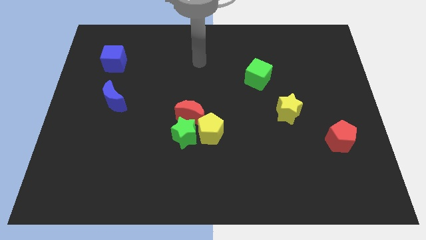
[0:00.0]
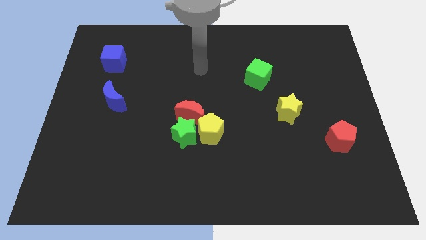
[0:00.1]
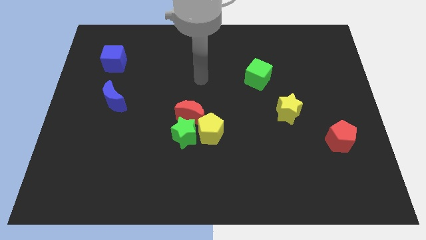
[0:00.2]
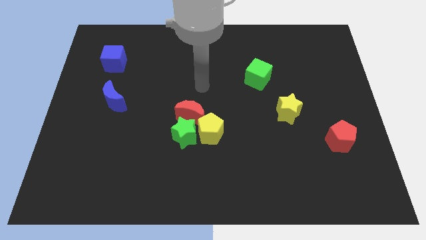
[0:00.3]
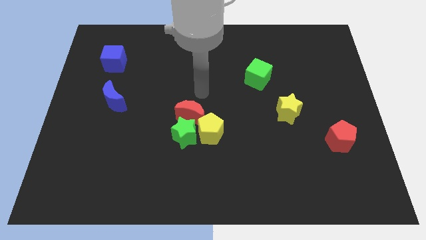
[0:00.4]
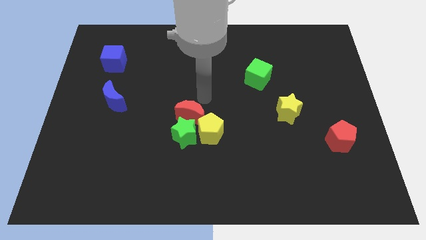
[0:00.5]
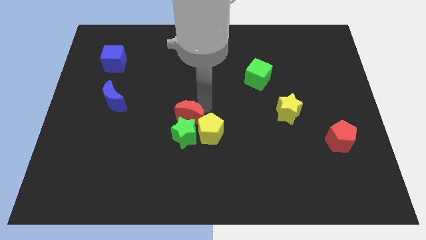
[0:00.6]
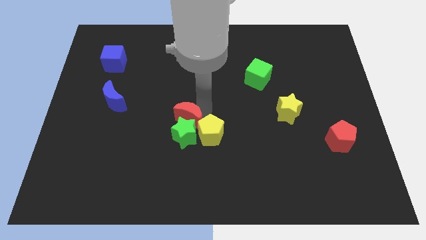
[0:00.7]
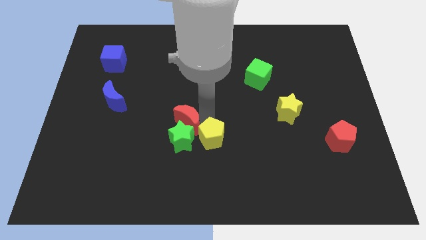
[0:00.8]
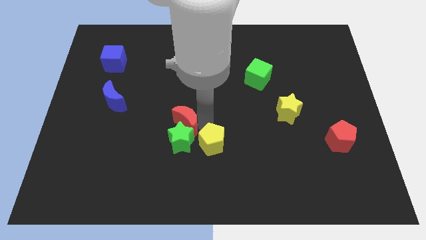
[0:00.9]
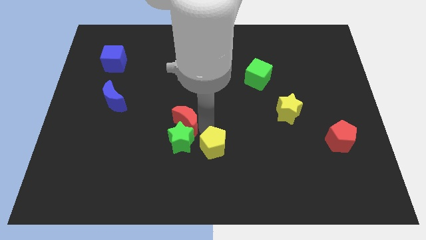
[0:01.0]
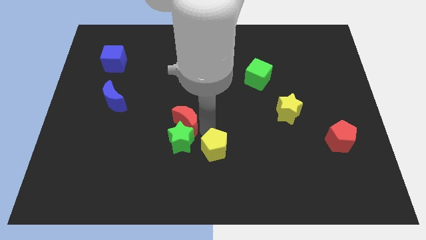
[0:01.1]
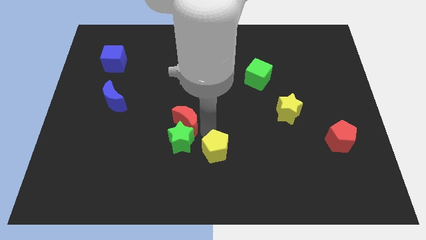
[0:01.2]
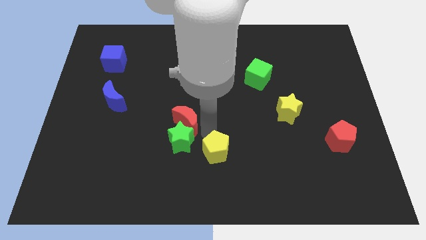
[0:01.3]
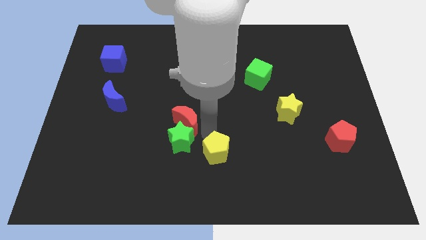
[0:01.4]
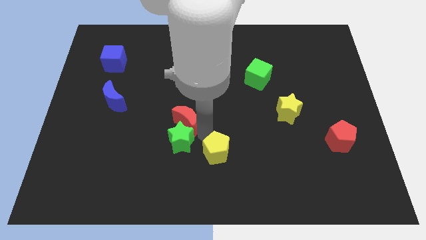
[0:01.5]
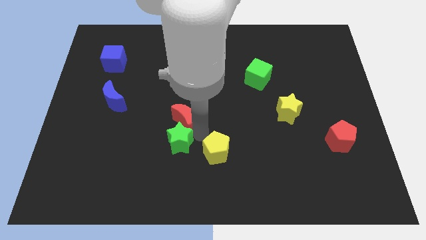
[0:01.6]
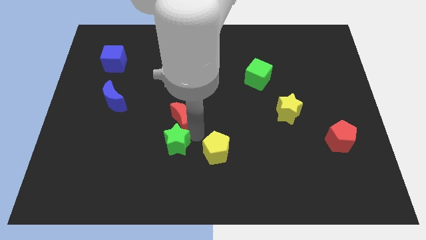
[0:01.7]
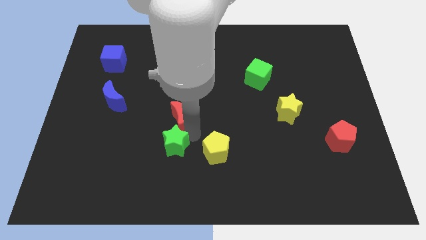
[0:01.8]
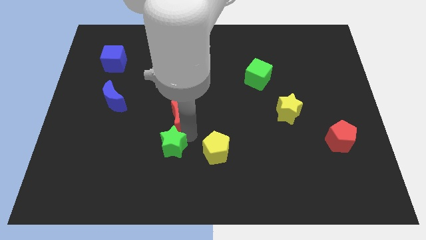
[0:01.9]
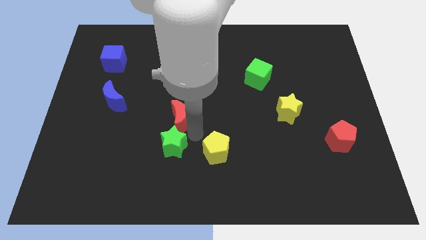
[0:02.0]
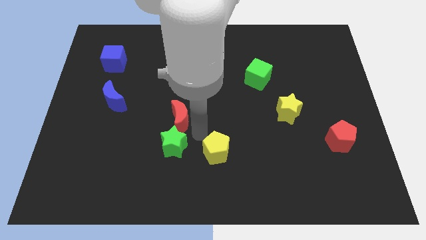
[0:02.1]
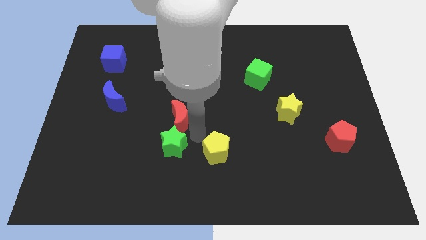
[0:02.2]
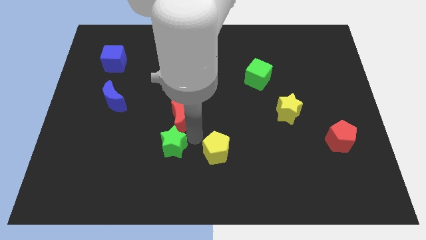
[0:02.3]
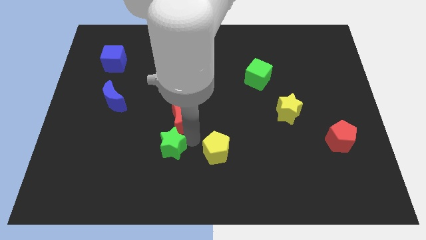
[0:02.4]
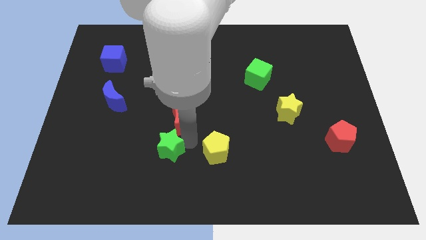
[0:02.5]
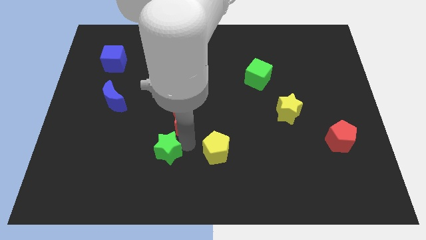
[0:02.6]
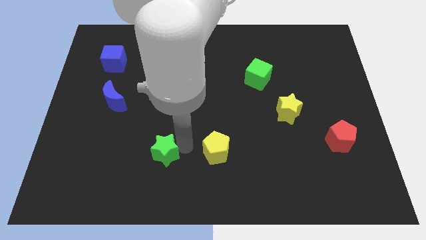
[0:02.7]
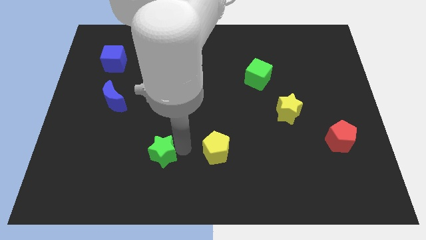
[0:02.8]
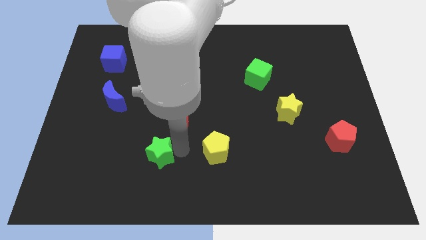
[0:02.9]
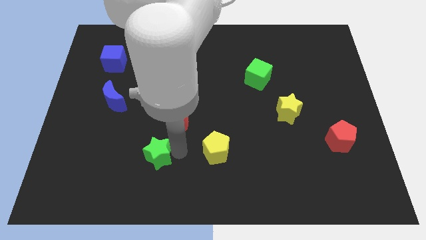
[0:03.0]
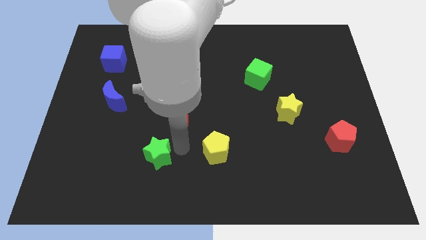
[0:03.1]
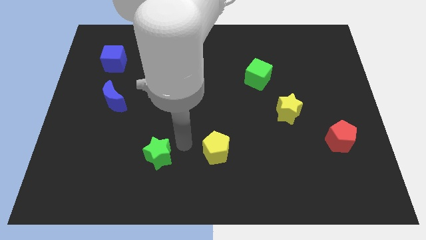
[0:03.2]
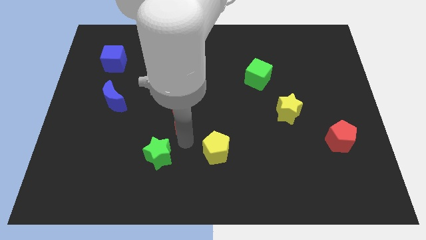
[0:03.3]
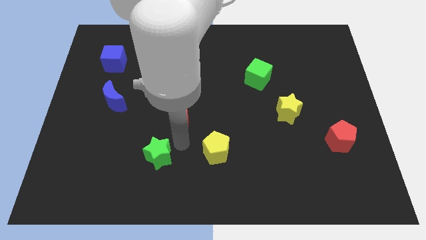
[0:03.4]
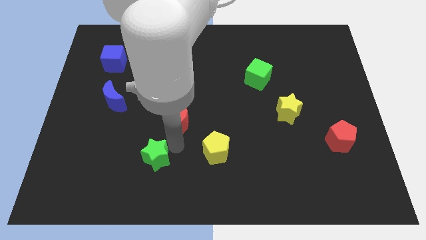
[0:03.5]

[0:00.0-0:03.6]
pull the green star apart from the red moon and yellow pentagon

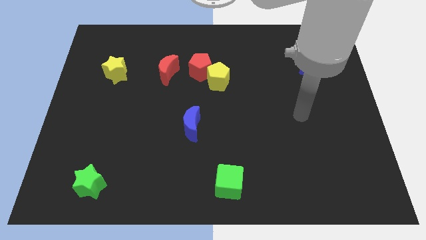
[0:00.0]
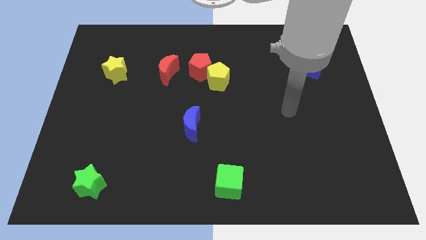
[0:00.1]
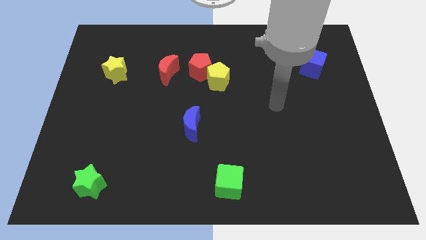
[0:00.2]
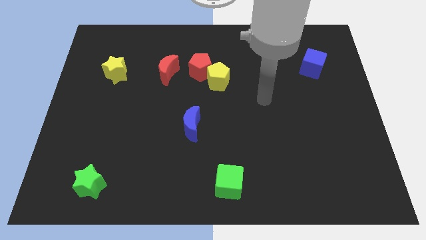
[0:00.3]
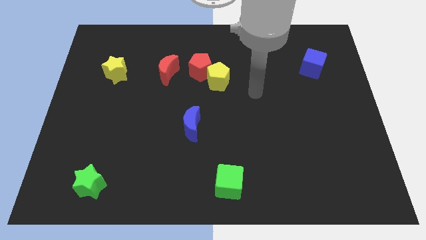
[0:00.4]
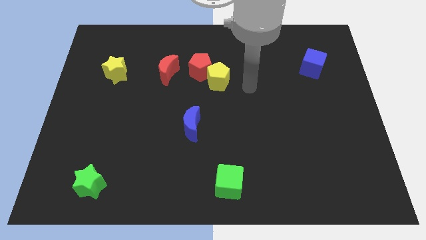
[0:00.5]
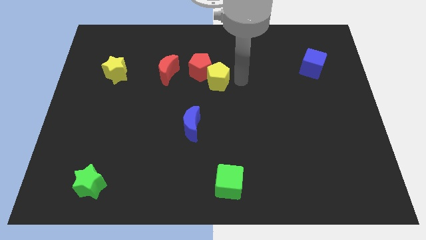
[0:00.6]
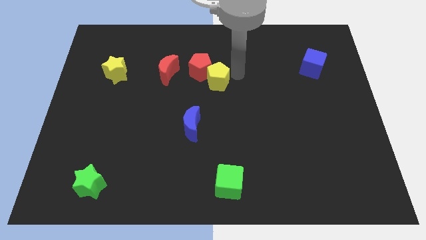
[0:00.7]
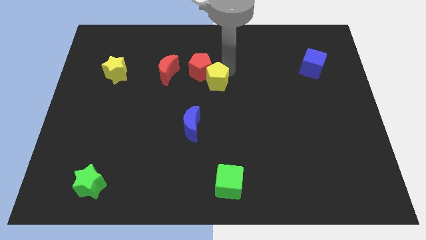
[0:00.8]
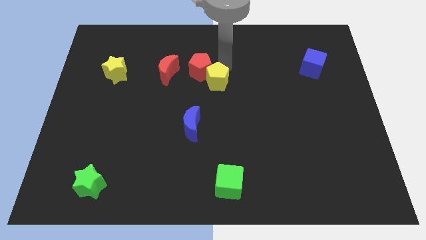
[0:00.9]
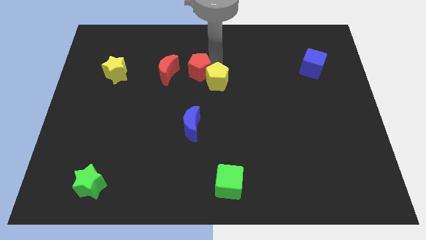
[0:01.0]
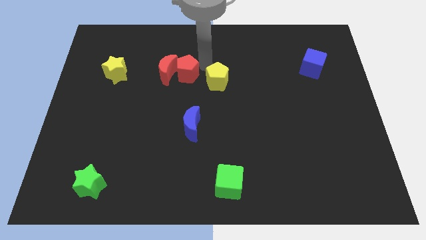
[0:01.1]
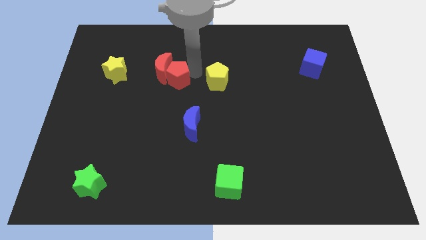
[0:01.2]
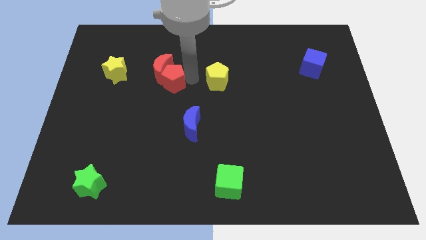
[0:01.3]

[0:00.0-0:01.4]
move the yellow pentagon away from the red pentagon

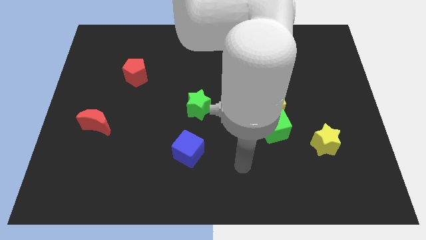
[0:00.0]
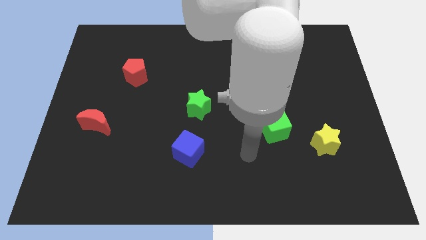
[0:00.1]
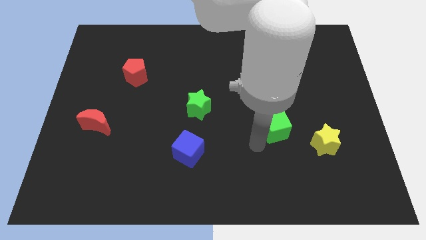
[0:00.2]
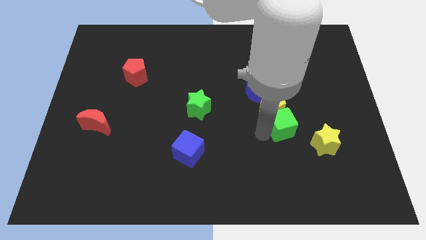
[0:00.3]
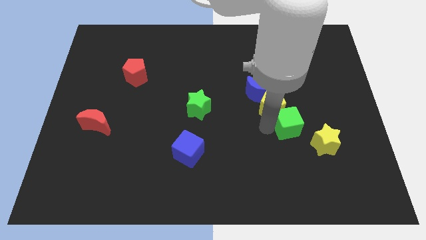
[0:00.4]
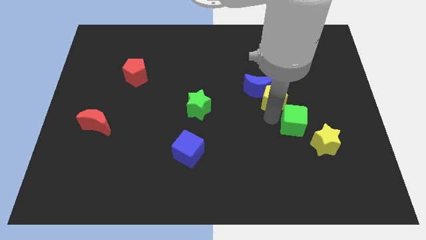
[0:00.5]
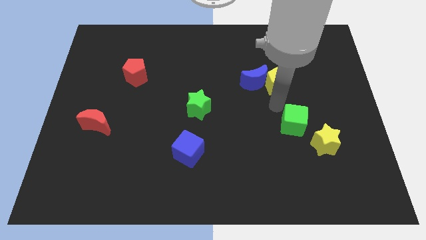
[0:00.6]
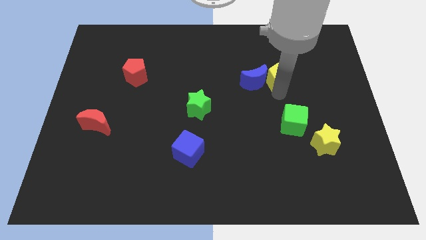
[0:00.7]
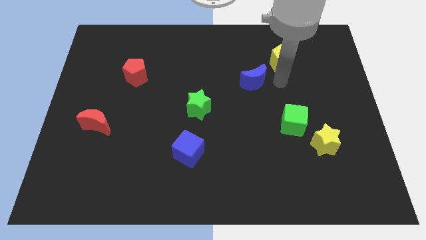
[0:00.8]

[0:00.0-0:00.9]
pull the blue moon apart from the yellow pentagon

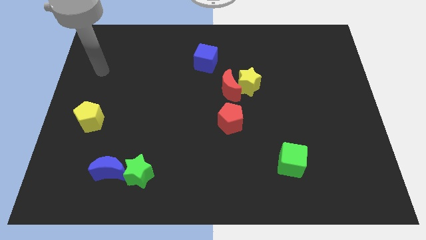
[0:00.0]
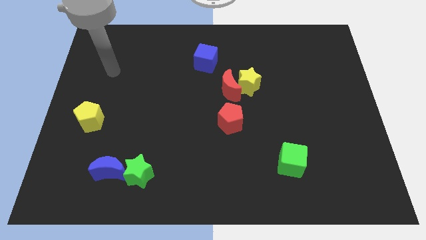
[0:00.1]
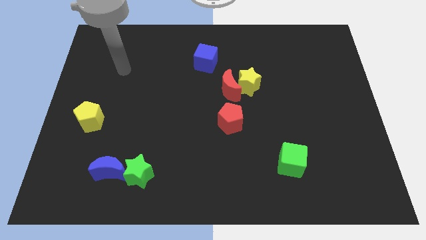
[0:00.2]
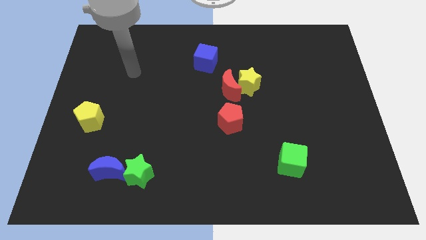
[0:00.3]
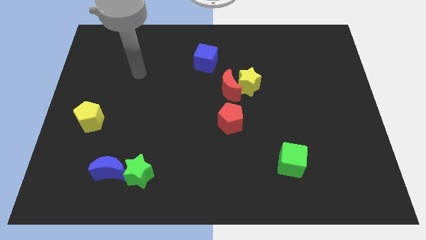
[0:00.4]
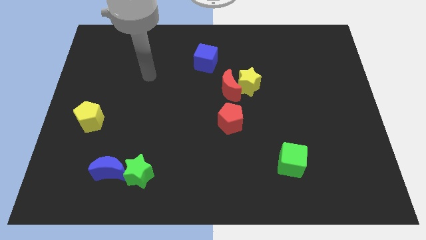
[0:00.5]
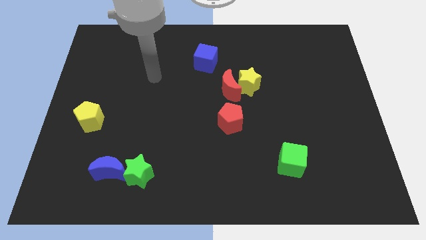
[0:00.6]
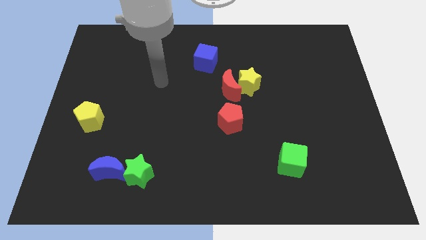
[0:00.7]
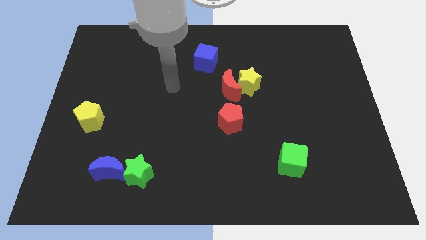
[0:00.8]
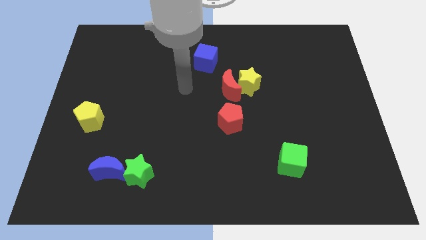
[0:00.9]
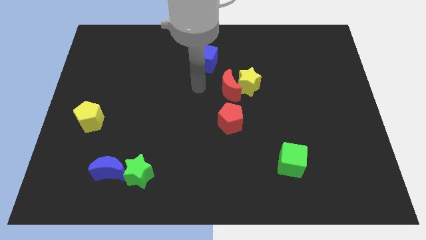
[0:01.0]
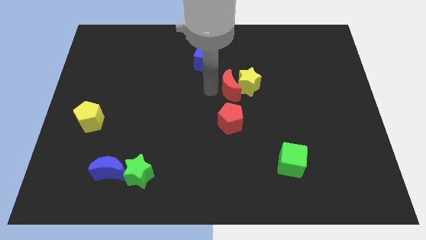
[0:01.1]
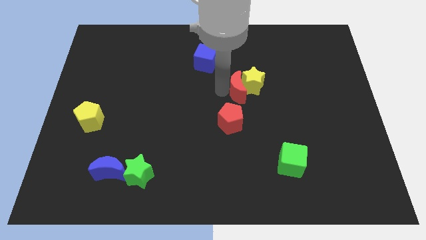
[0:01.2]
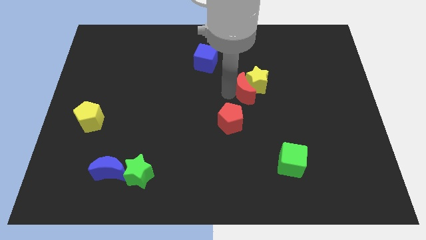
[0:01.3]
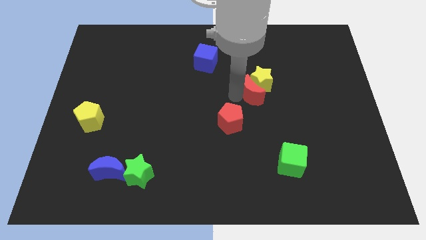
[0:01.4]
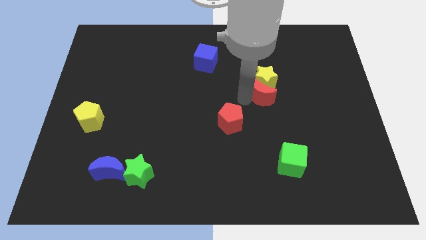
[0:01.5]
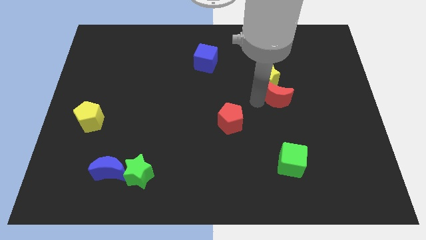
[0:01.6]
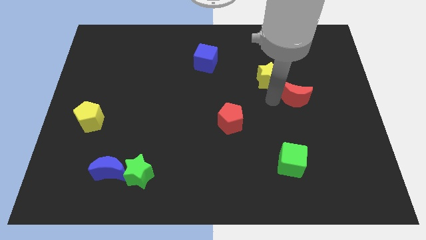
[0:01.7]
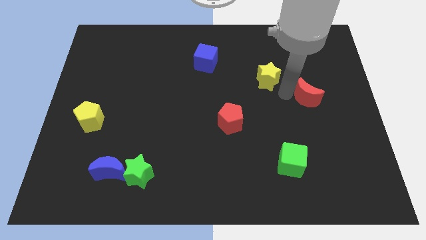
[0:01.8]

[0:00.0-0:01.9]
separate the yellow star from the red moon

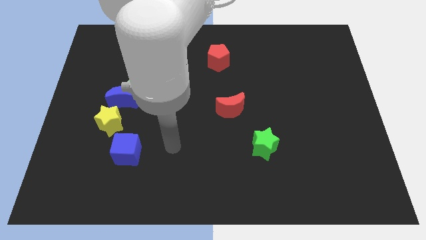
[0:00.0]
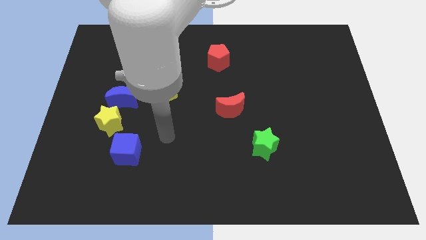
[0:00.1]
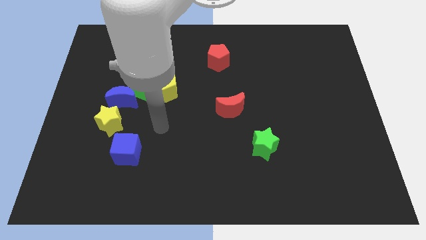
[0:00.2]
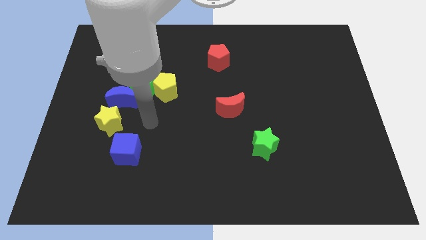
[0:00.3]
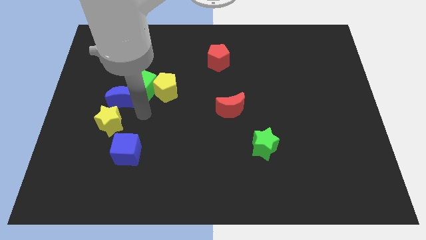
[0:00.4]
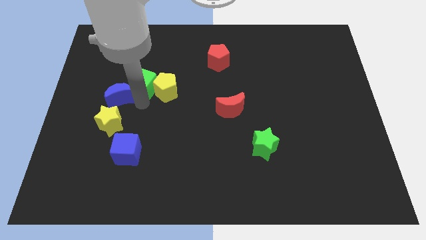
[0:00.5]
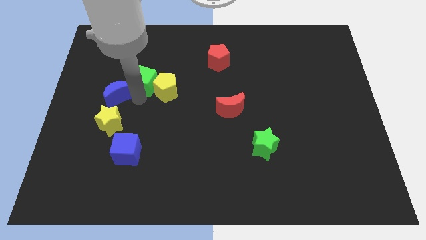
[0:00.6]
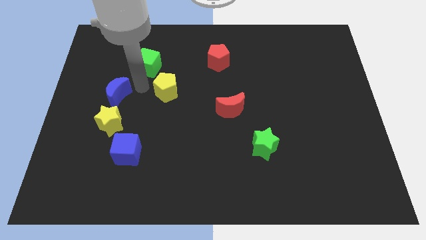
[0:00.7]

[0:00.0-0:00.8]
move the yellow pentagon away from the green cube

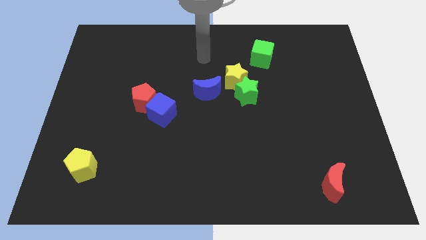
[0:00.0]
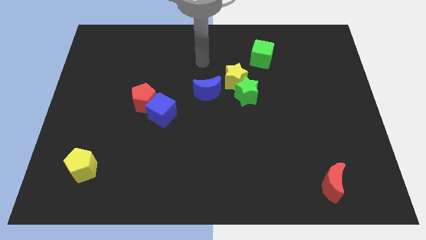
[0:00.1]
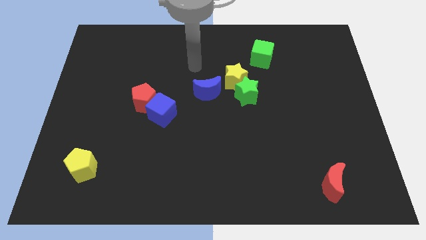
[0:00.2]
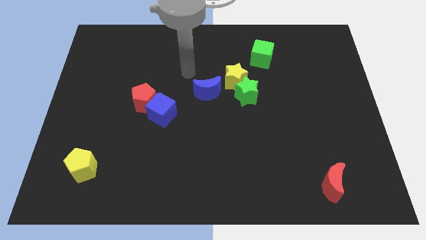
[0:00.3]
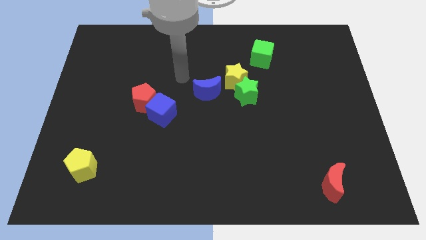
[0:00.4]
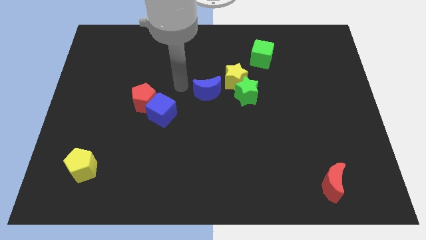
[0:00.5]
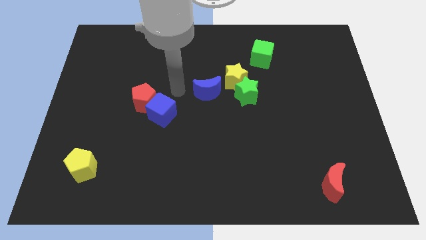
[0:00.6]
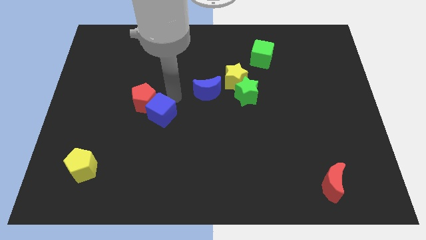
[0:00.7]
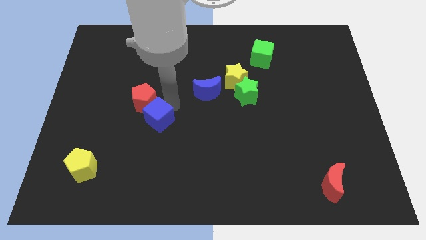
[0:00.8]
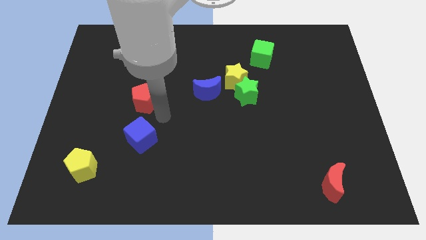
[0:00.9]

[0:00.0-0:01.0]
pull the red pentagon apart from the blue cube
